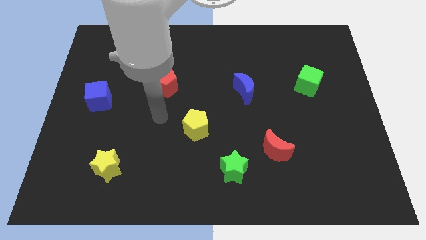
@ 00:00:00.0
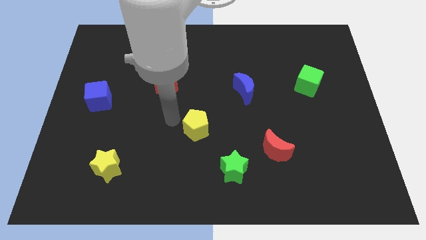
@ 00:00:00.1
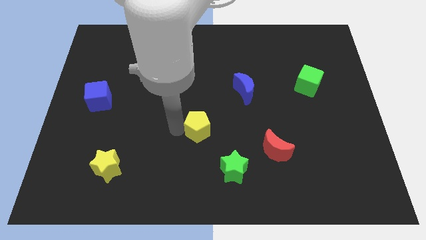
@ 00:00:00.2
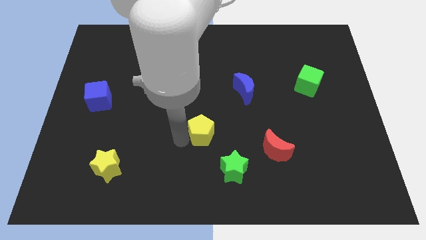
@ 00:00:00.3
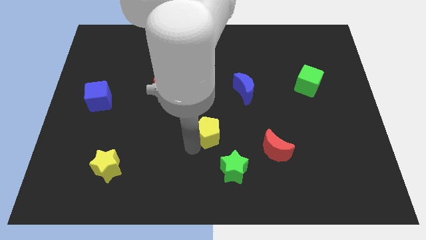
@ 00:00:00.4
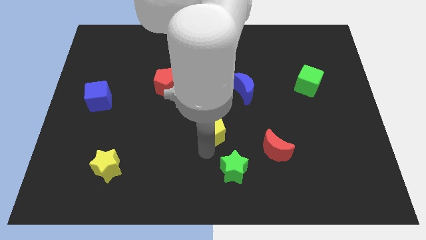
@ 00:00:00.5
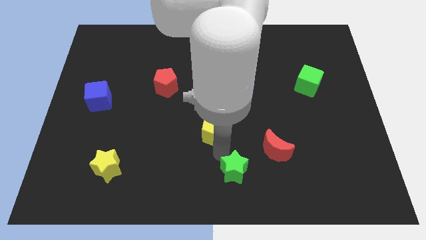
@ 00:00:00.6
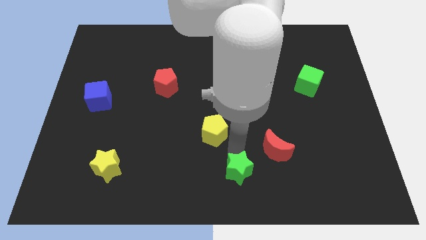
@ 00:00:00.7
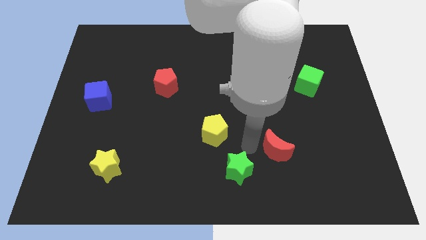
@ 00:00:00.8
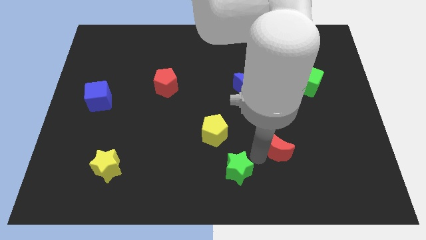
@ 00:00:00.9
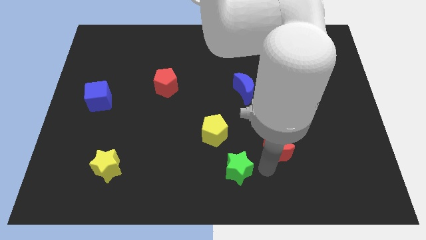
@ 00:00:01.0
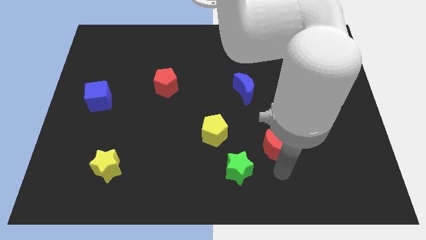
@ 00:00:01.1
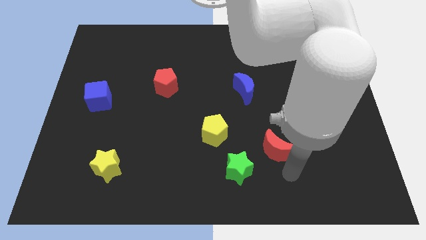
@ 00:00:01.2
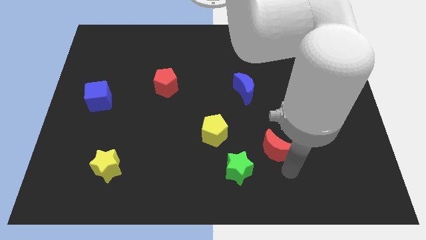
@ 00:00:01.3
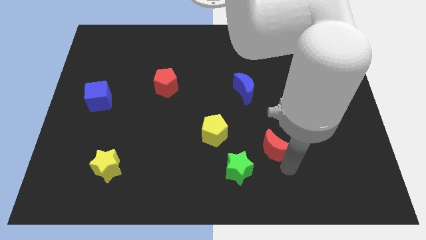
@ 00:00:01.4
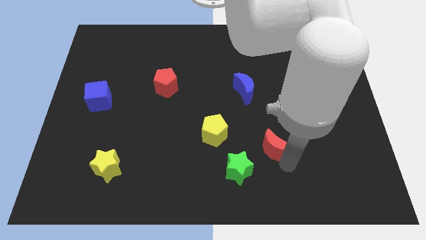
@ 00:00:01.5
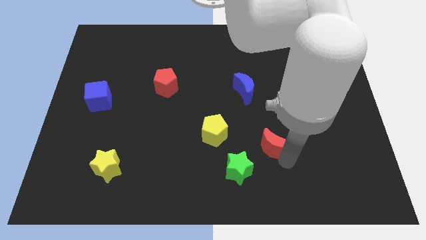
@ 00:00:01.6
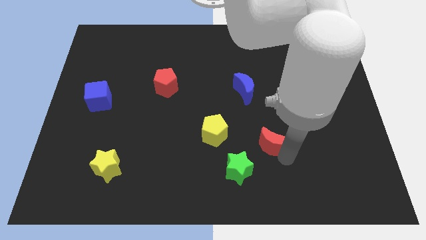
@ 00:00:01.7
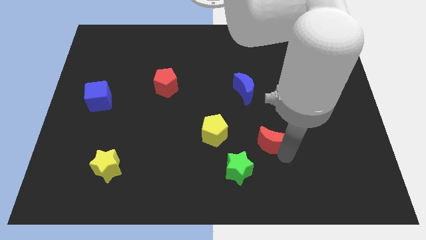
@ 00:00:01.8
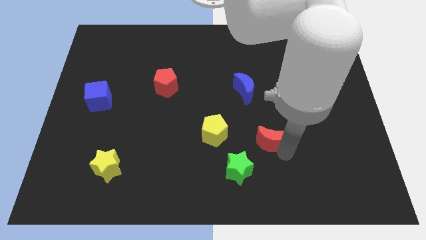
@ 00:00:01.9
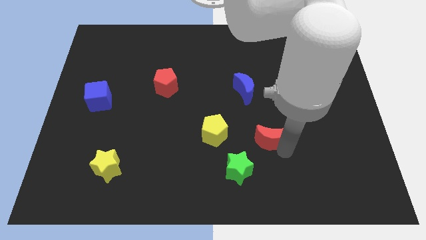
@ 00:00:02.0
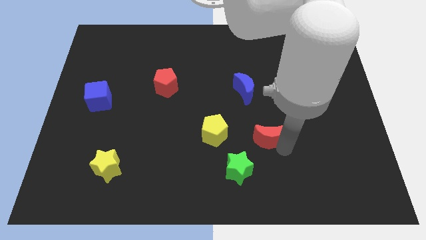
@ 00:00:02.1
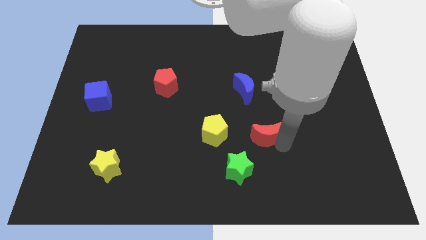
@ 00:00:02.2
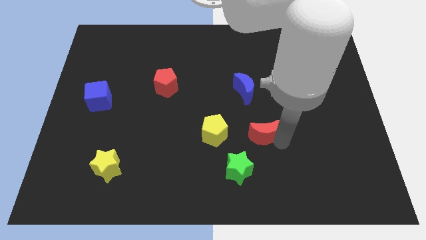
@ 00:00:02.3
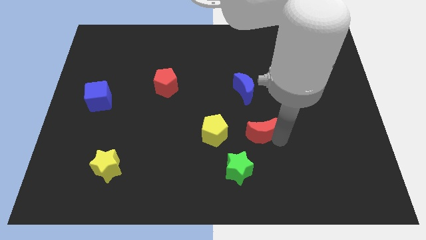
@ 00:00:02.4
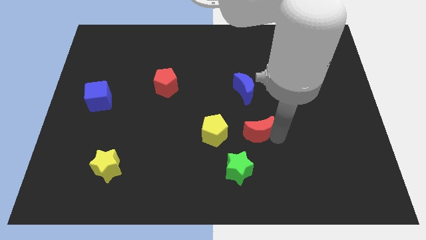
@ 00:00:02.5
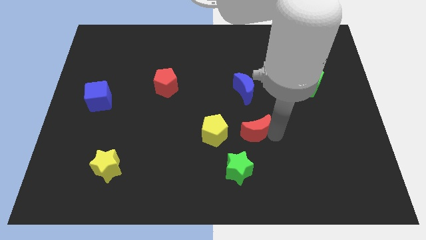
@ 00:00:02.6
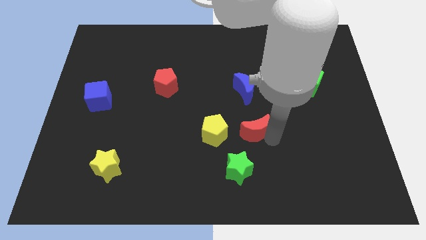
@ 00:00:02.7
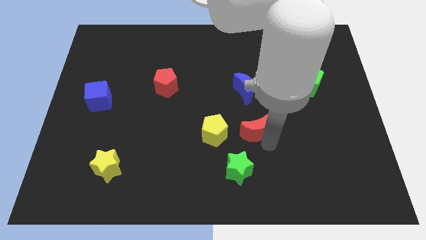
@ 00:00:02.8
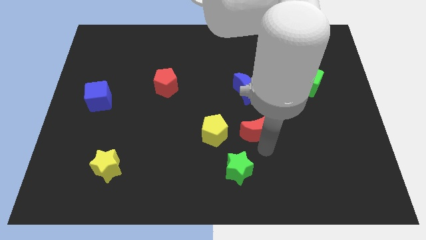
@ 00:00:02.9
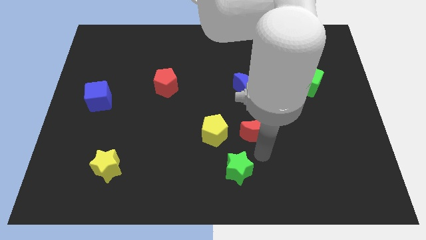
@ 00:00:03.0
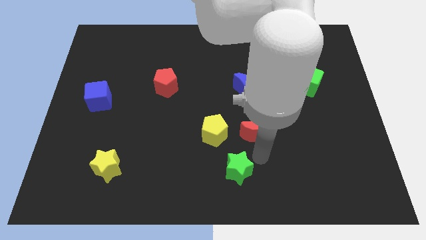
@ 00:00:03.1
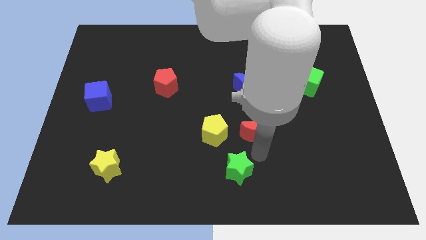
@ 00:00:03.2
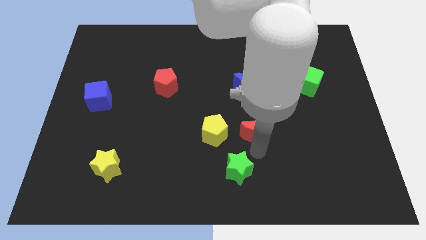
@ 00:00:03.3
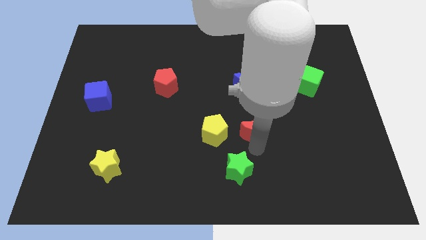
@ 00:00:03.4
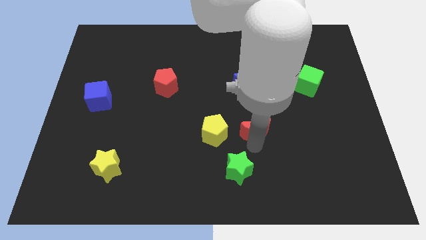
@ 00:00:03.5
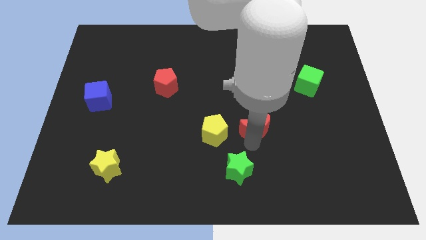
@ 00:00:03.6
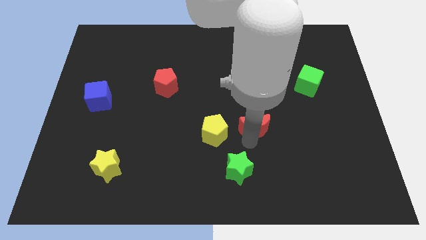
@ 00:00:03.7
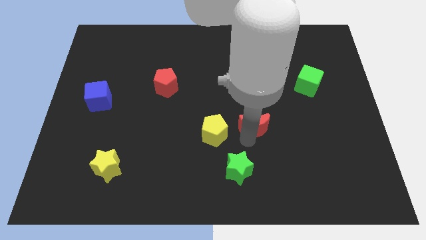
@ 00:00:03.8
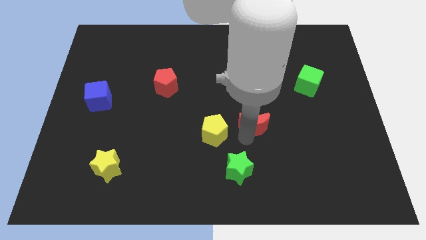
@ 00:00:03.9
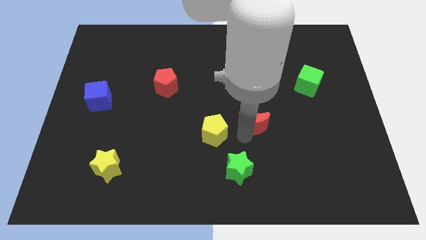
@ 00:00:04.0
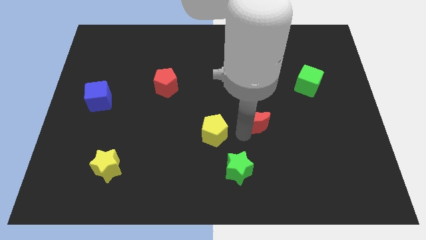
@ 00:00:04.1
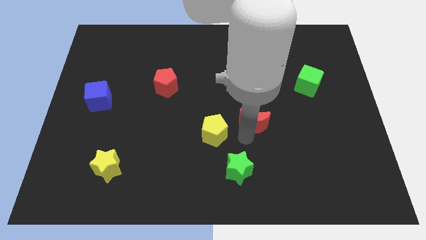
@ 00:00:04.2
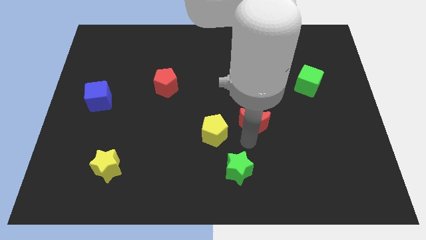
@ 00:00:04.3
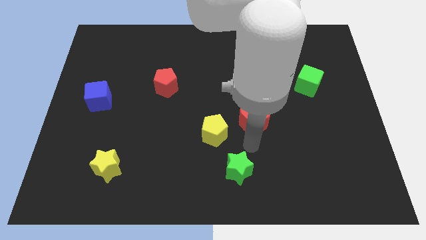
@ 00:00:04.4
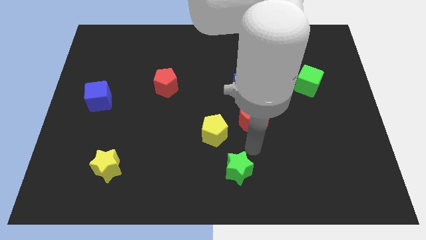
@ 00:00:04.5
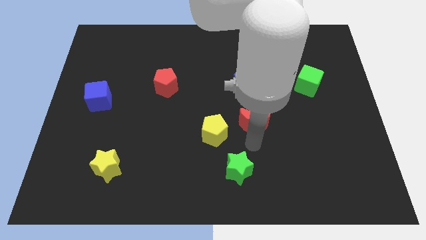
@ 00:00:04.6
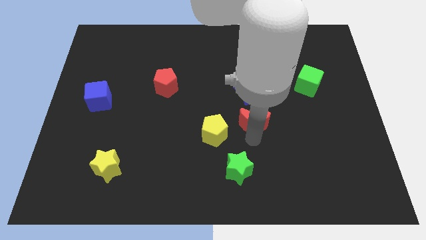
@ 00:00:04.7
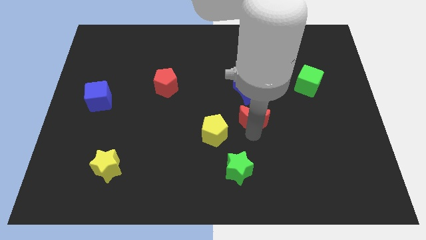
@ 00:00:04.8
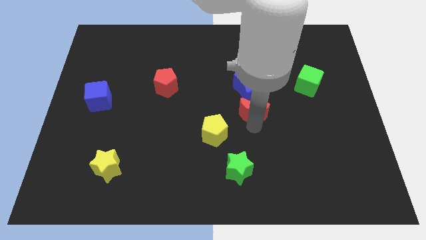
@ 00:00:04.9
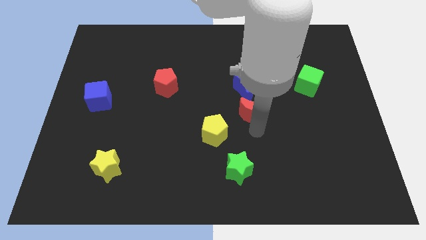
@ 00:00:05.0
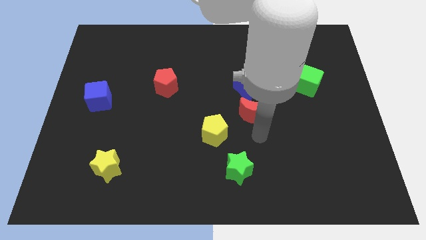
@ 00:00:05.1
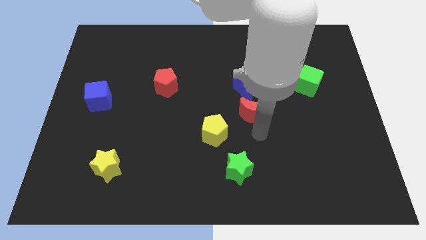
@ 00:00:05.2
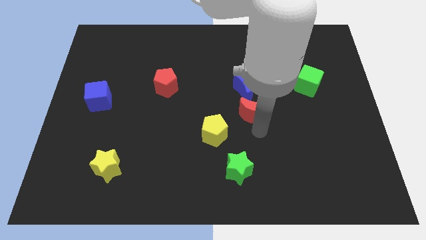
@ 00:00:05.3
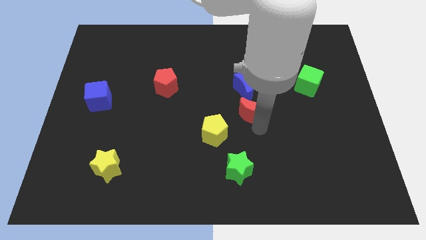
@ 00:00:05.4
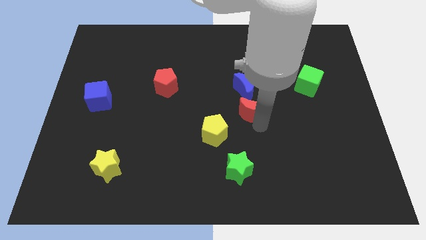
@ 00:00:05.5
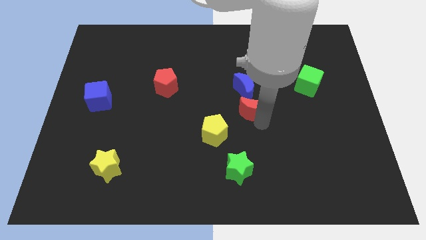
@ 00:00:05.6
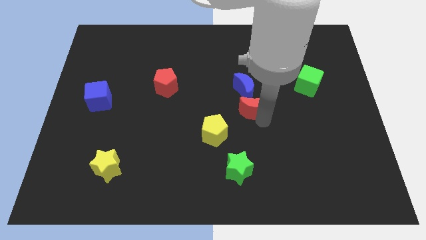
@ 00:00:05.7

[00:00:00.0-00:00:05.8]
put the red moon next to the blue moon

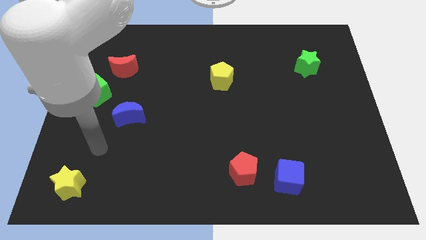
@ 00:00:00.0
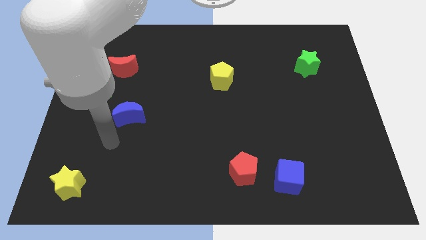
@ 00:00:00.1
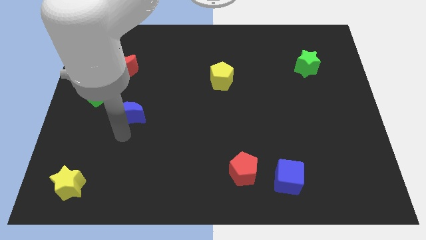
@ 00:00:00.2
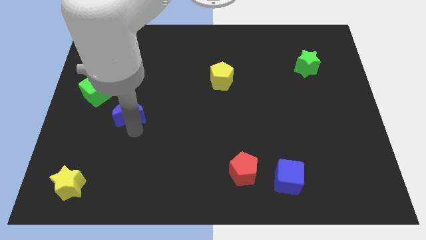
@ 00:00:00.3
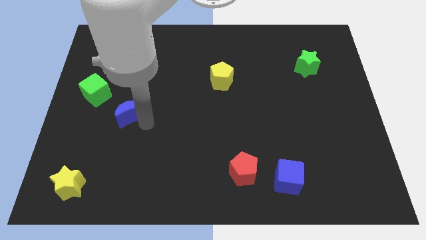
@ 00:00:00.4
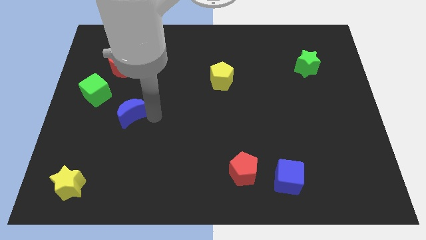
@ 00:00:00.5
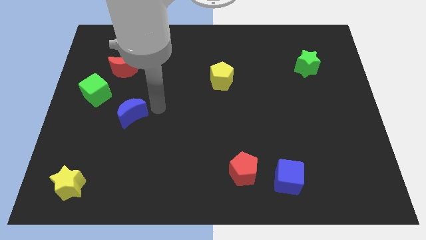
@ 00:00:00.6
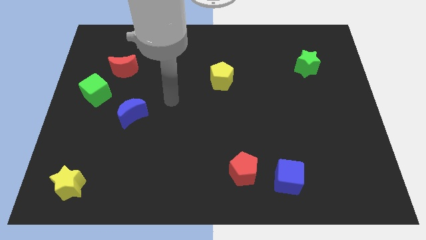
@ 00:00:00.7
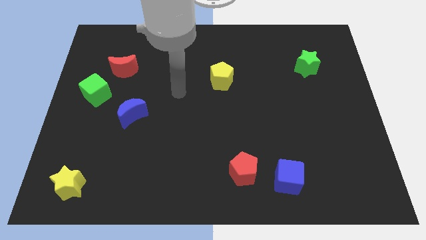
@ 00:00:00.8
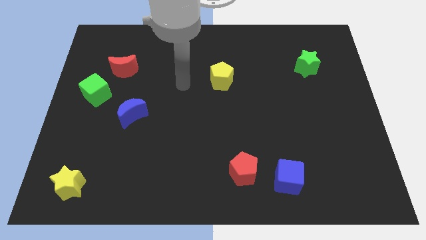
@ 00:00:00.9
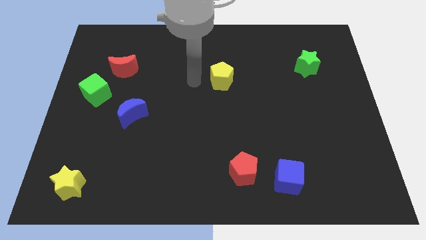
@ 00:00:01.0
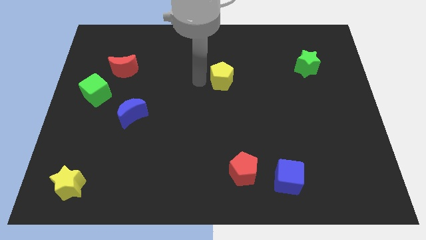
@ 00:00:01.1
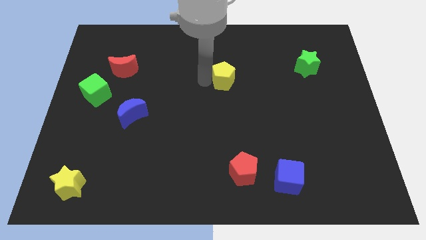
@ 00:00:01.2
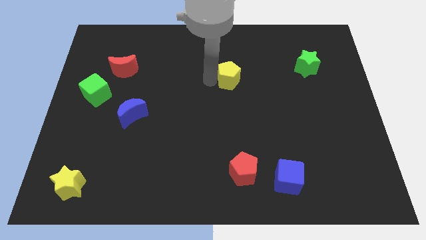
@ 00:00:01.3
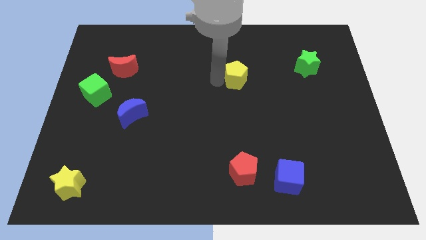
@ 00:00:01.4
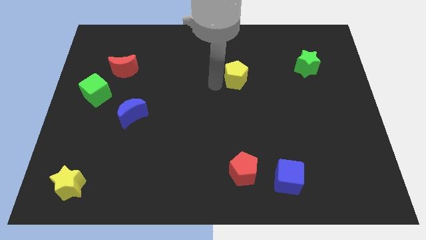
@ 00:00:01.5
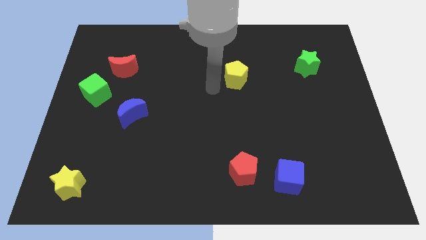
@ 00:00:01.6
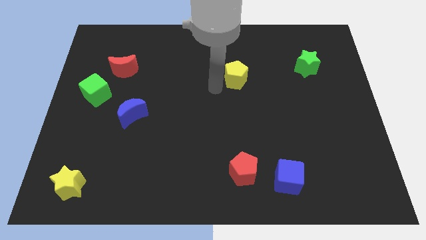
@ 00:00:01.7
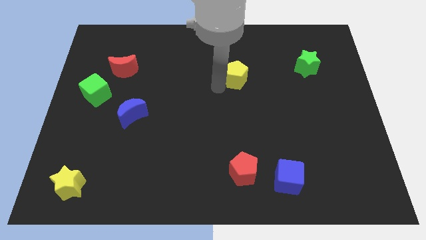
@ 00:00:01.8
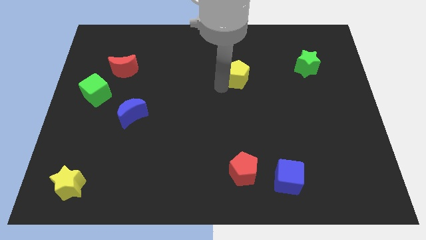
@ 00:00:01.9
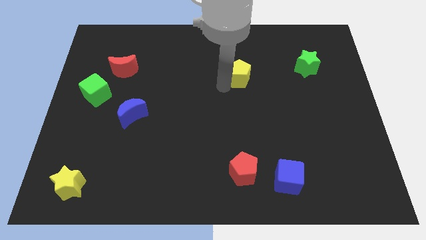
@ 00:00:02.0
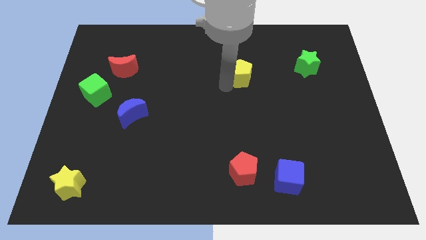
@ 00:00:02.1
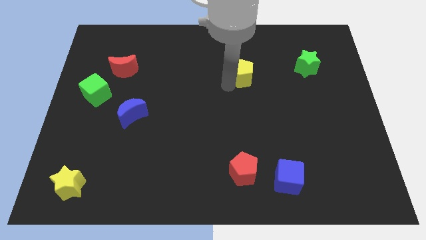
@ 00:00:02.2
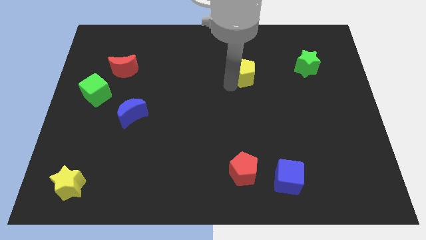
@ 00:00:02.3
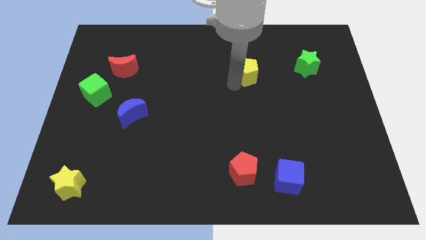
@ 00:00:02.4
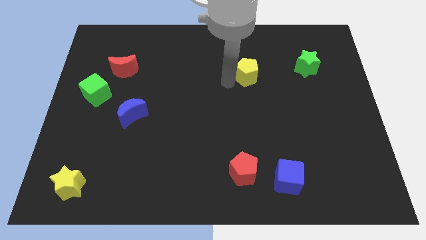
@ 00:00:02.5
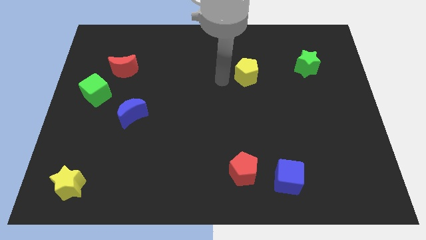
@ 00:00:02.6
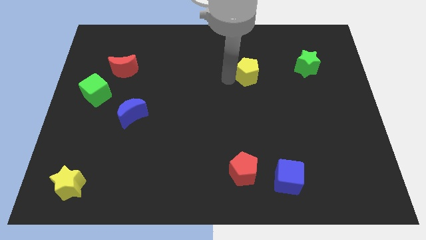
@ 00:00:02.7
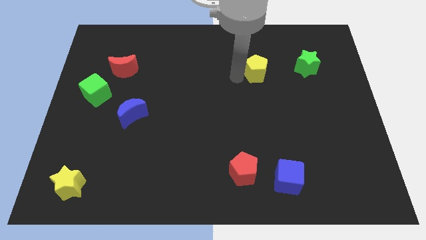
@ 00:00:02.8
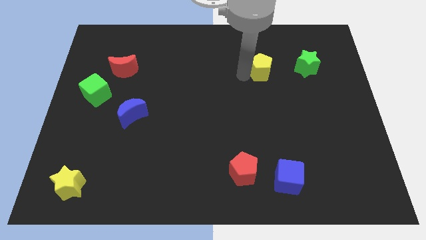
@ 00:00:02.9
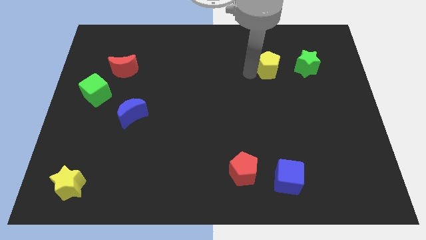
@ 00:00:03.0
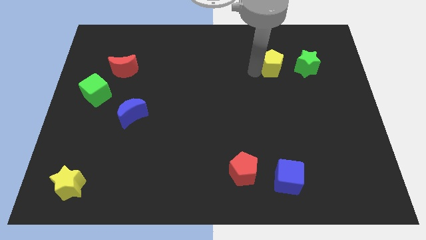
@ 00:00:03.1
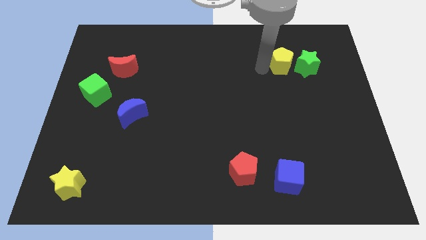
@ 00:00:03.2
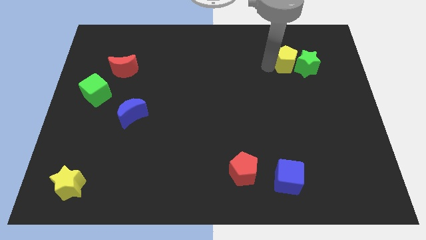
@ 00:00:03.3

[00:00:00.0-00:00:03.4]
push the yellow pentagon towards the green star
